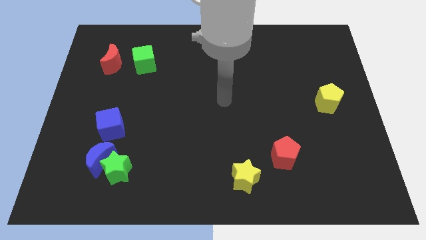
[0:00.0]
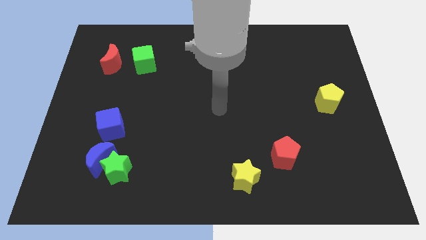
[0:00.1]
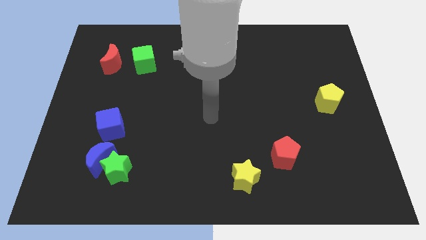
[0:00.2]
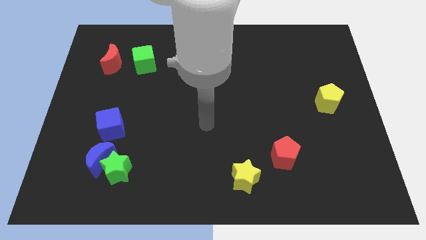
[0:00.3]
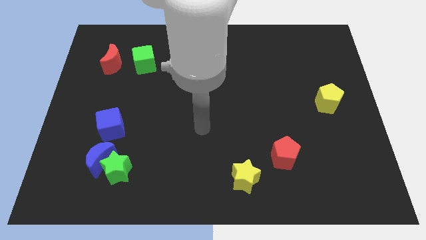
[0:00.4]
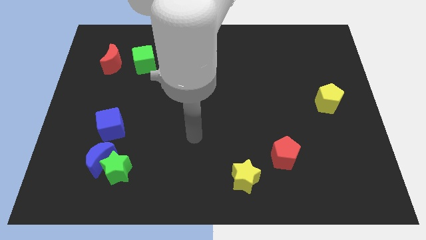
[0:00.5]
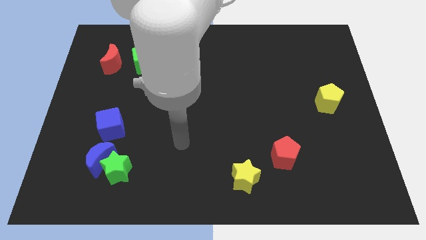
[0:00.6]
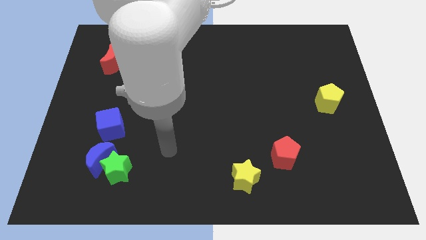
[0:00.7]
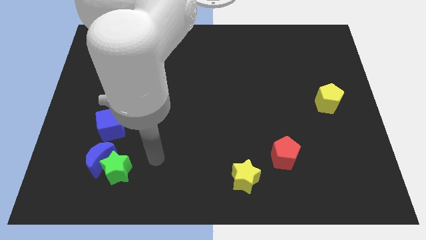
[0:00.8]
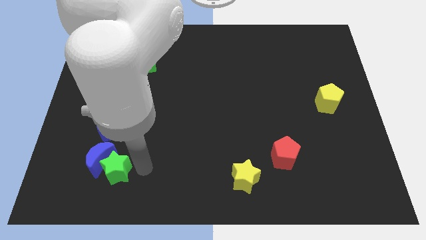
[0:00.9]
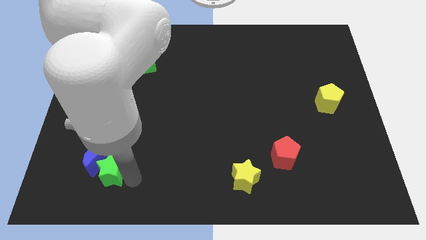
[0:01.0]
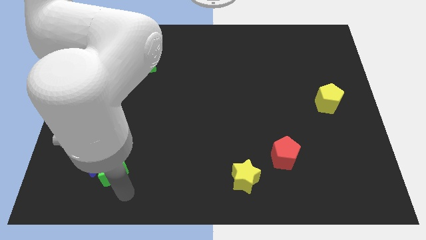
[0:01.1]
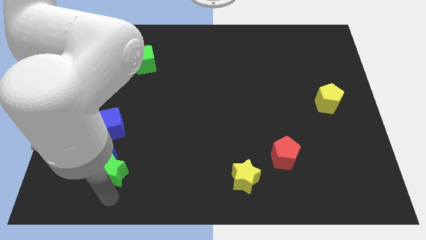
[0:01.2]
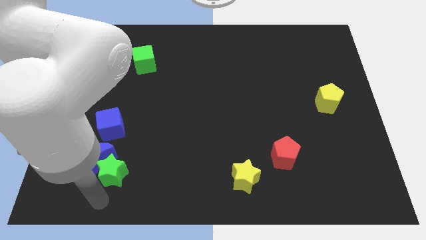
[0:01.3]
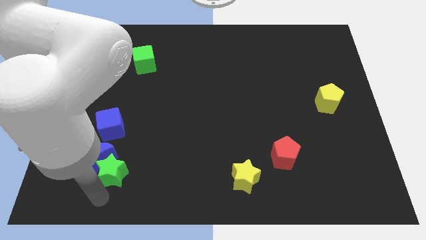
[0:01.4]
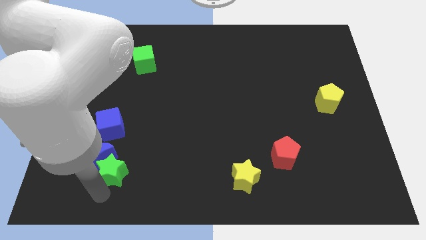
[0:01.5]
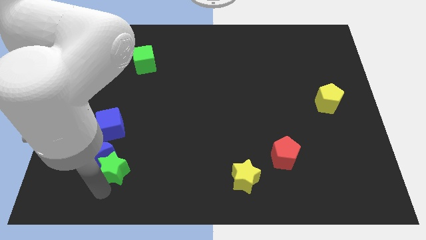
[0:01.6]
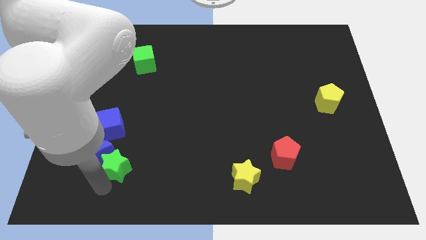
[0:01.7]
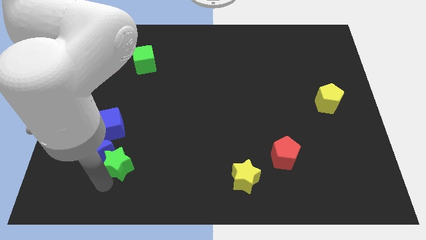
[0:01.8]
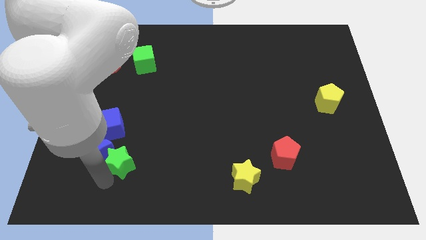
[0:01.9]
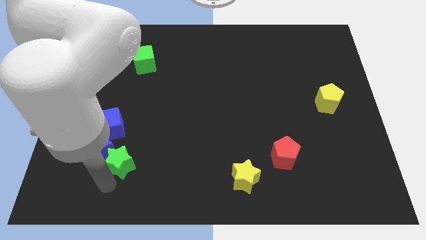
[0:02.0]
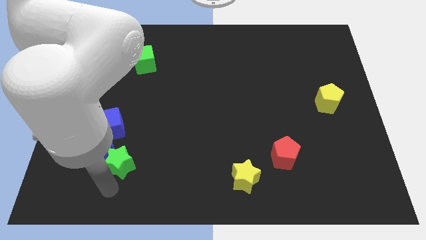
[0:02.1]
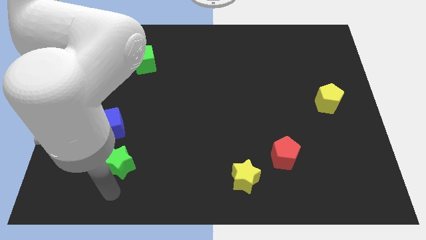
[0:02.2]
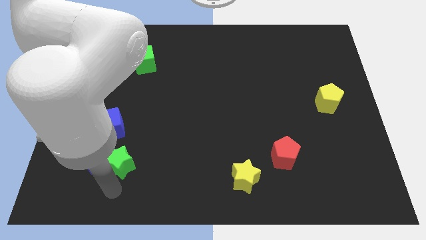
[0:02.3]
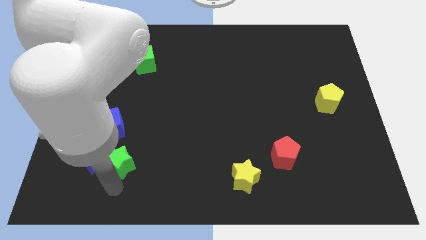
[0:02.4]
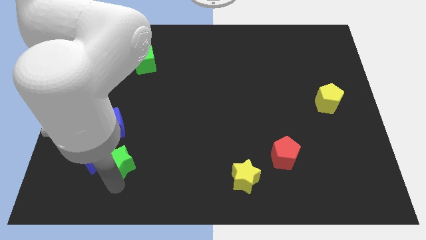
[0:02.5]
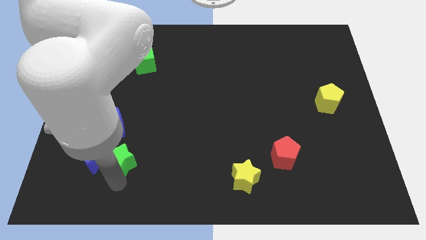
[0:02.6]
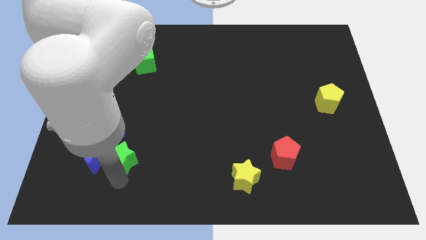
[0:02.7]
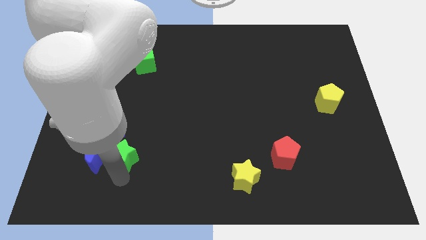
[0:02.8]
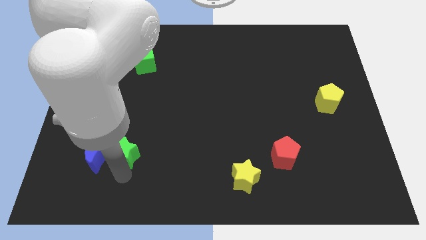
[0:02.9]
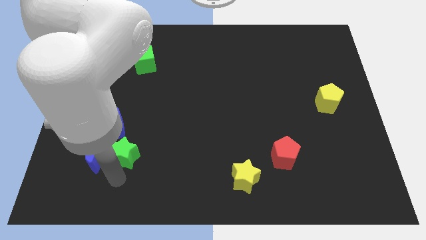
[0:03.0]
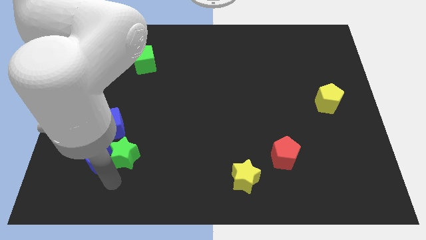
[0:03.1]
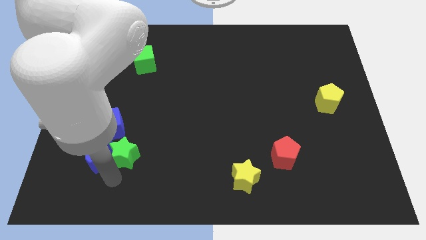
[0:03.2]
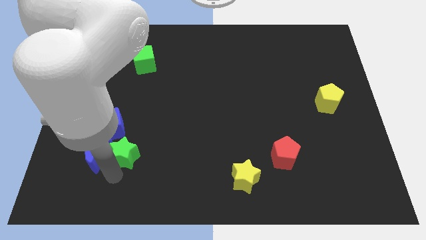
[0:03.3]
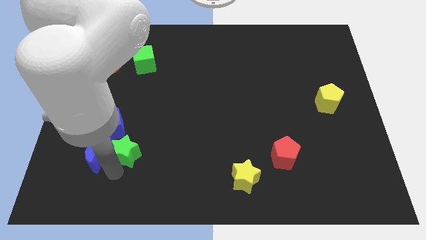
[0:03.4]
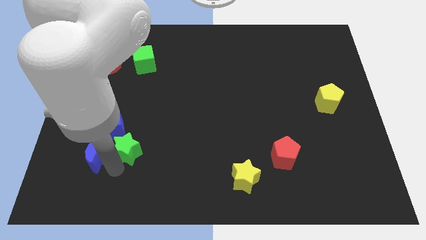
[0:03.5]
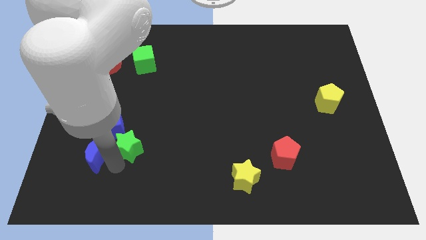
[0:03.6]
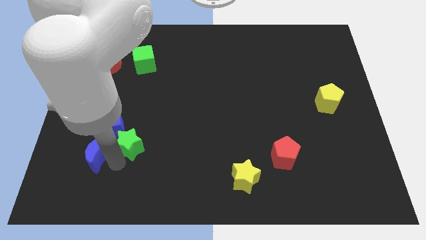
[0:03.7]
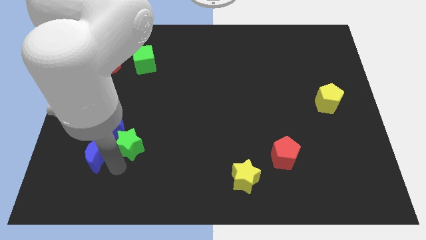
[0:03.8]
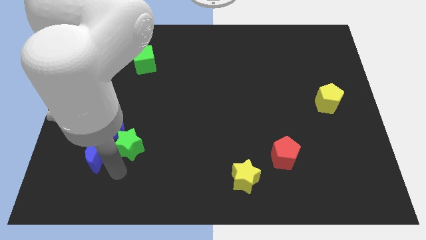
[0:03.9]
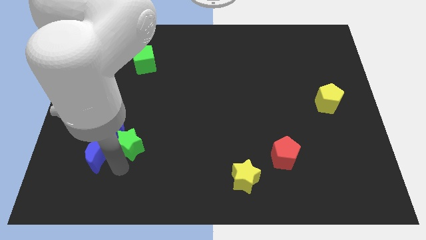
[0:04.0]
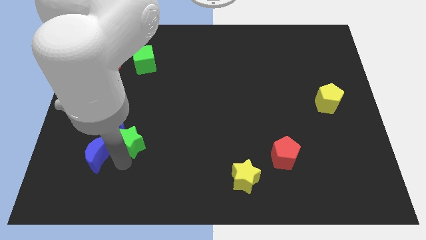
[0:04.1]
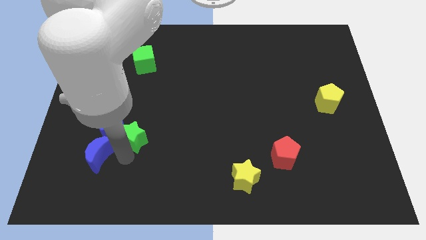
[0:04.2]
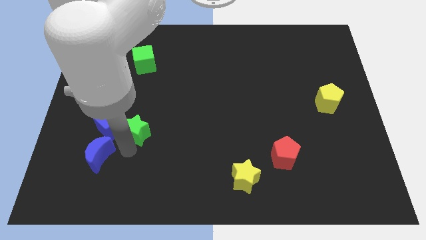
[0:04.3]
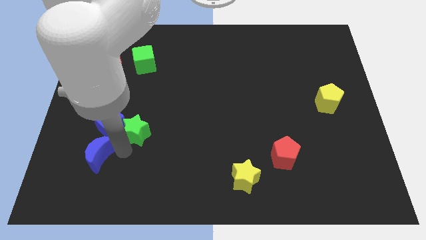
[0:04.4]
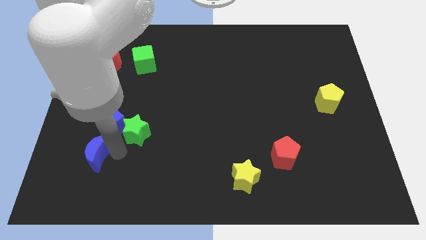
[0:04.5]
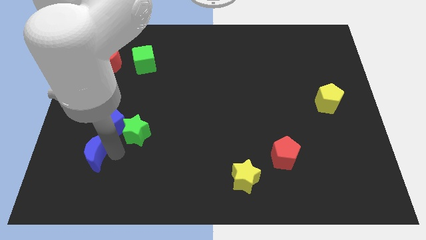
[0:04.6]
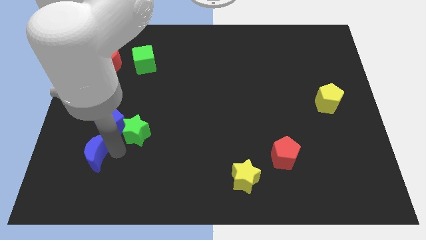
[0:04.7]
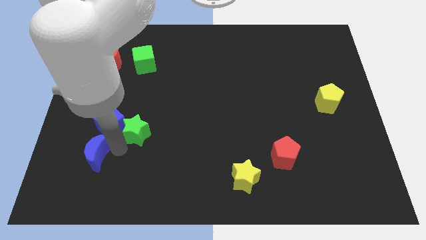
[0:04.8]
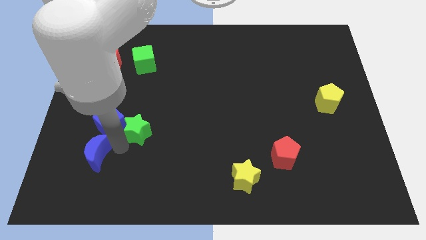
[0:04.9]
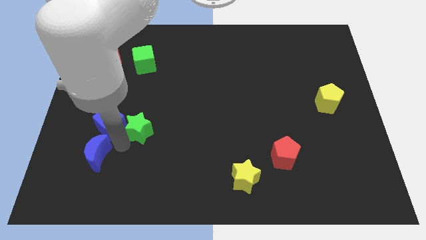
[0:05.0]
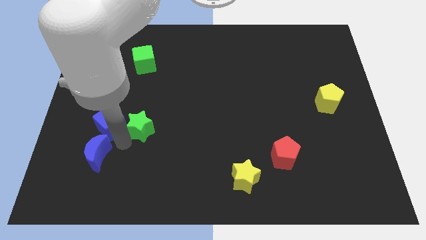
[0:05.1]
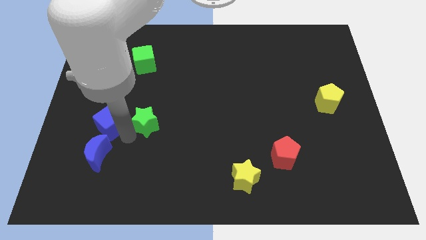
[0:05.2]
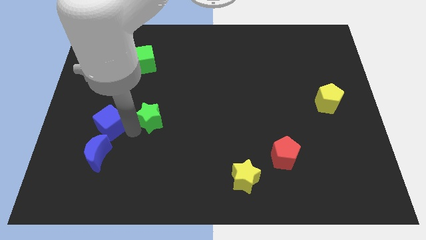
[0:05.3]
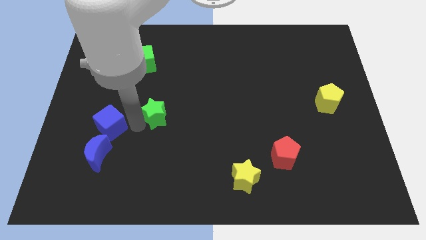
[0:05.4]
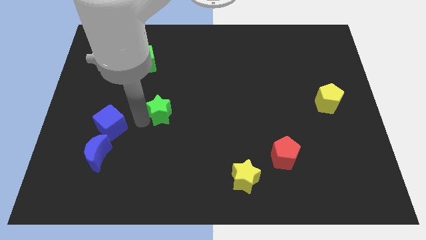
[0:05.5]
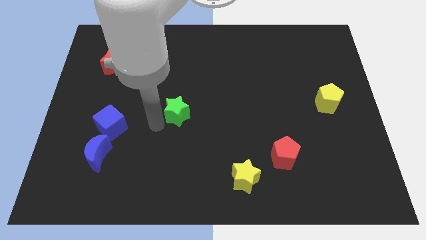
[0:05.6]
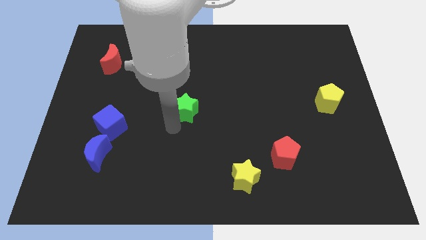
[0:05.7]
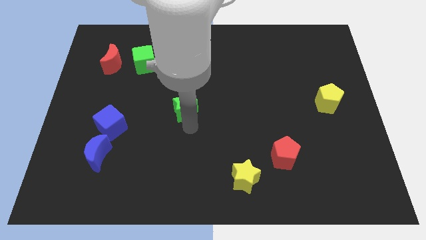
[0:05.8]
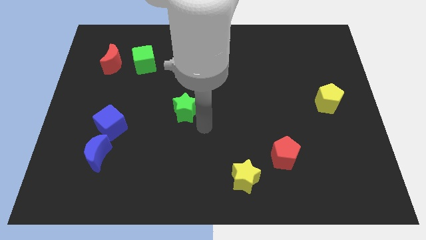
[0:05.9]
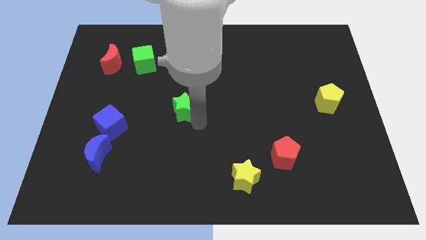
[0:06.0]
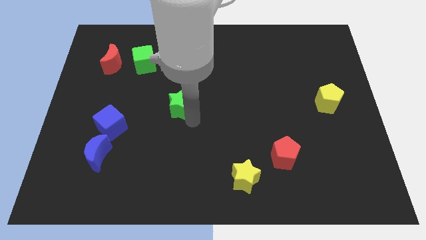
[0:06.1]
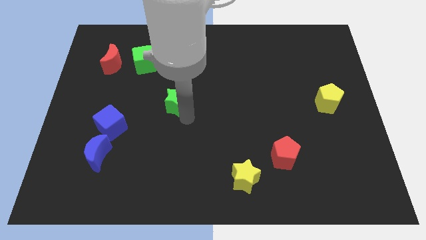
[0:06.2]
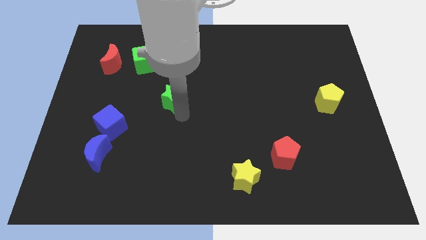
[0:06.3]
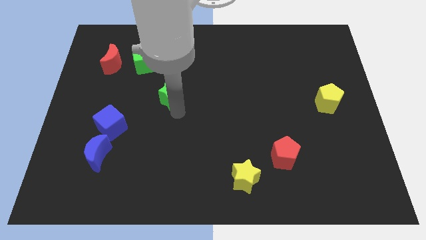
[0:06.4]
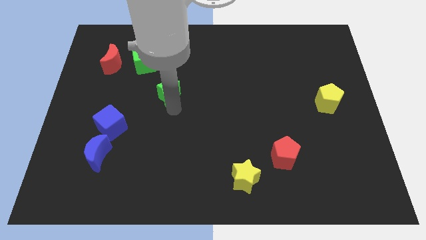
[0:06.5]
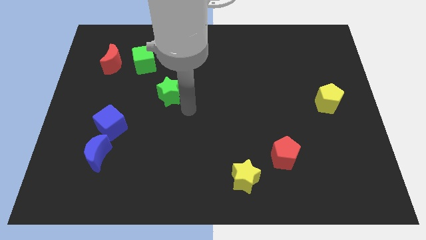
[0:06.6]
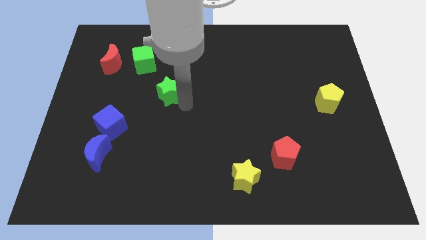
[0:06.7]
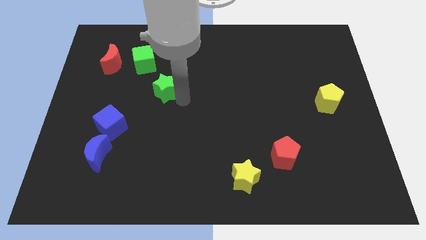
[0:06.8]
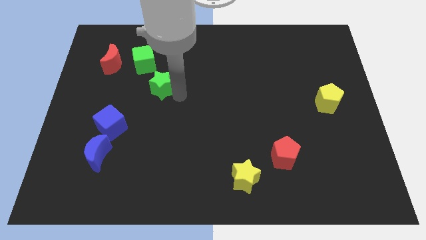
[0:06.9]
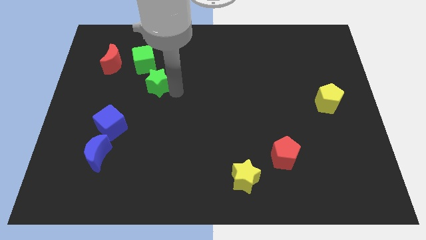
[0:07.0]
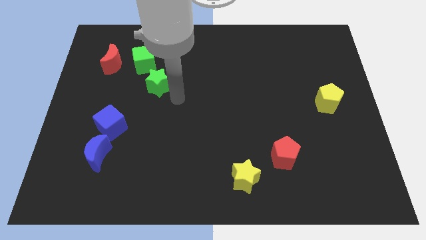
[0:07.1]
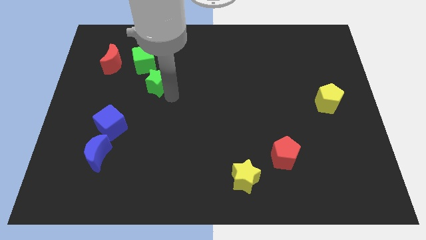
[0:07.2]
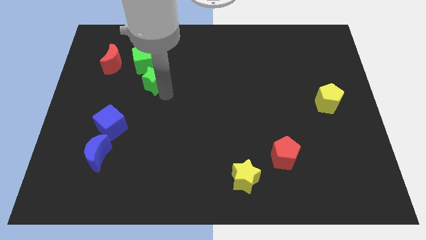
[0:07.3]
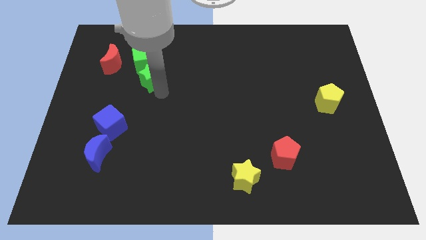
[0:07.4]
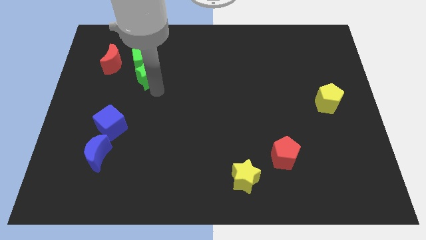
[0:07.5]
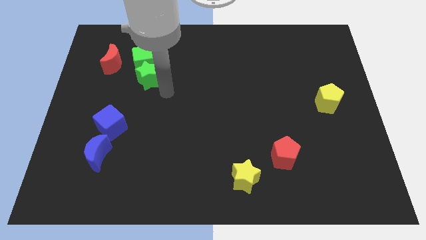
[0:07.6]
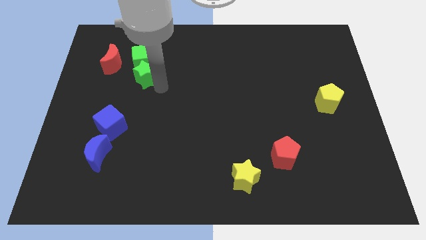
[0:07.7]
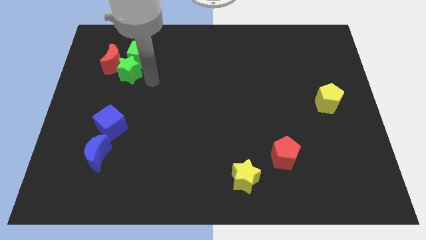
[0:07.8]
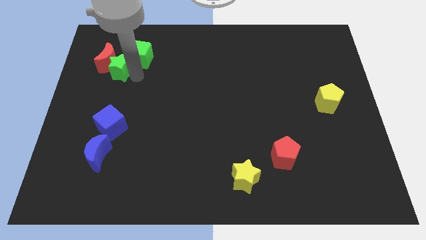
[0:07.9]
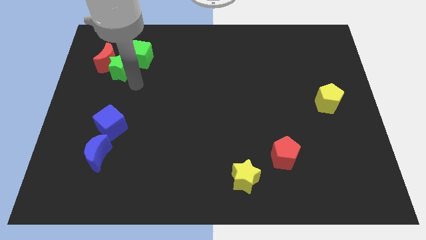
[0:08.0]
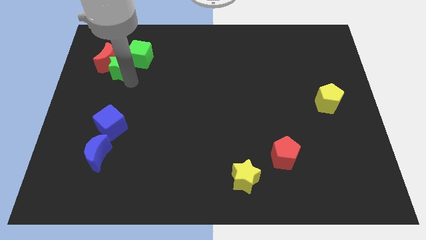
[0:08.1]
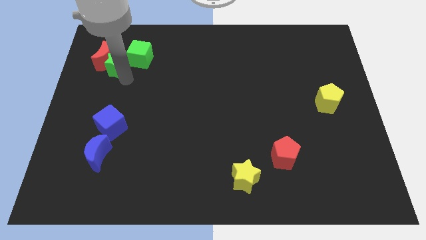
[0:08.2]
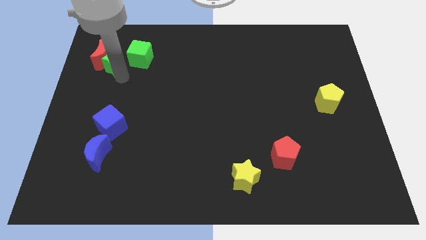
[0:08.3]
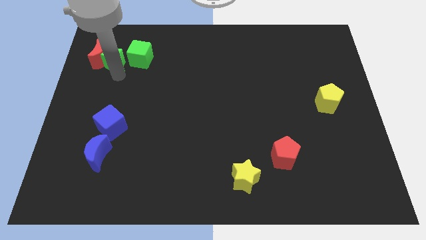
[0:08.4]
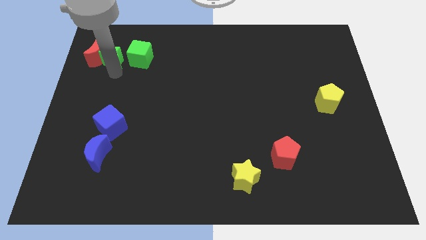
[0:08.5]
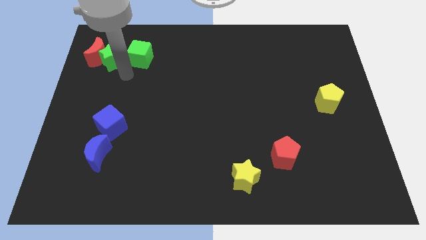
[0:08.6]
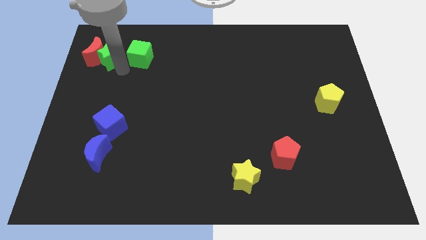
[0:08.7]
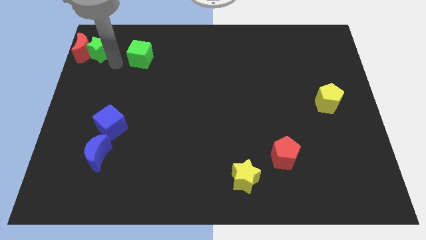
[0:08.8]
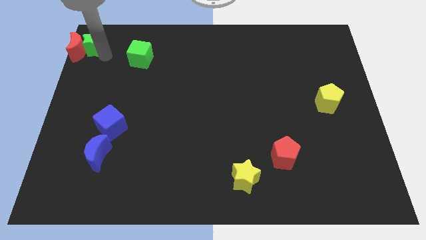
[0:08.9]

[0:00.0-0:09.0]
slide the green star to the top left corner
